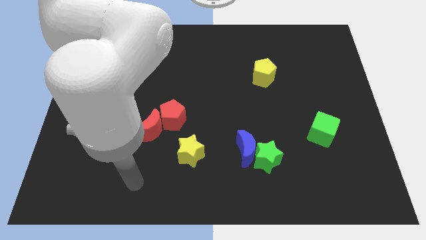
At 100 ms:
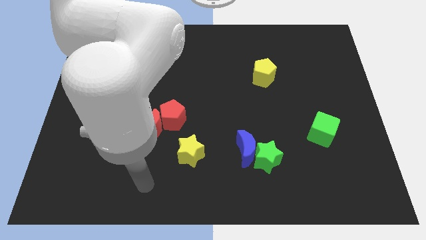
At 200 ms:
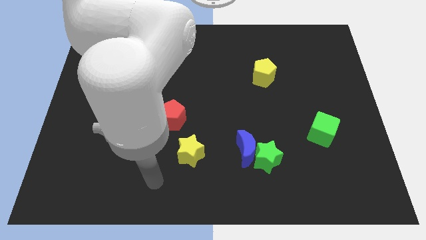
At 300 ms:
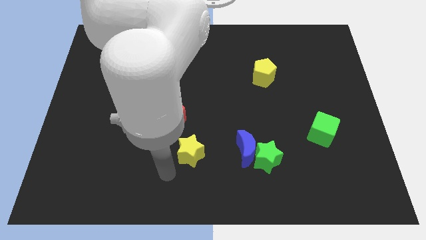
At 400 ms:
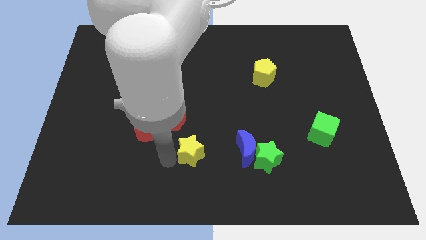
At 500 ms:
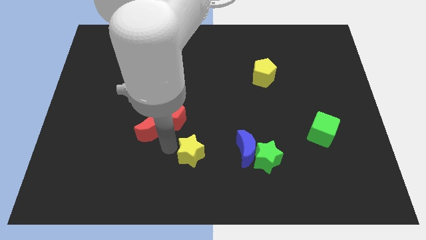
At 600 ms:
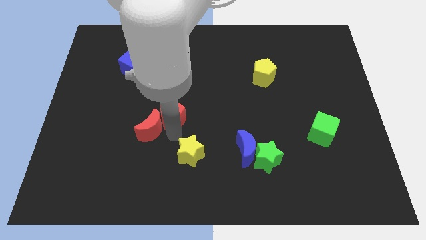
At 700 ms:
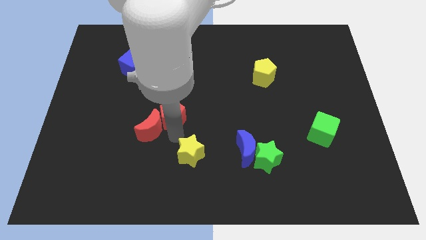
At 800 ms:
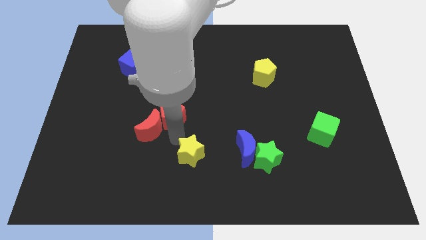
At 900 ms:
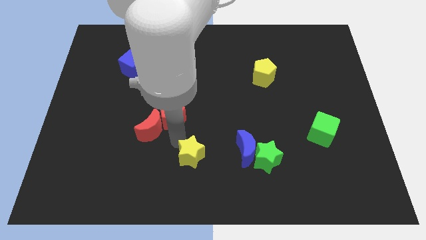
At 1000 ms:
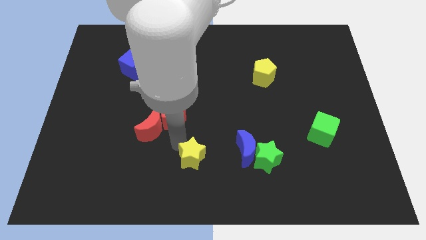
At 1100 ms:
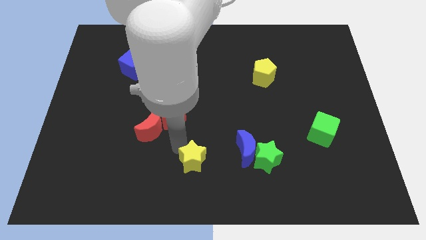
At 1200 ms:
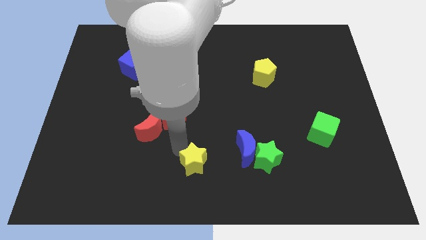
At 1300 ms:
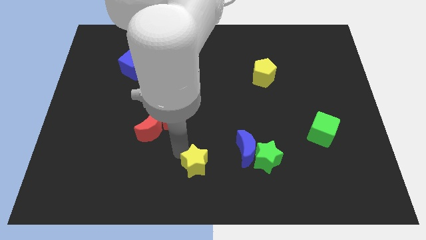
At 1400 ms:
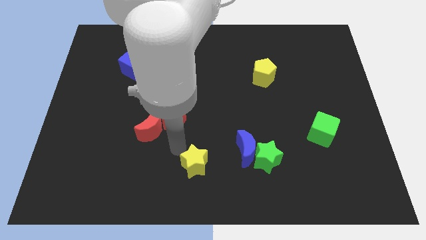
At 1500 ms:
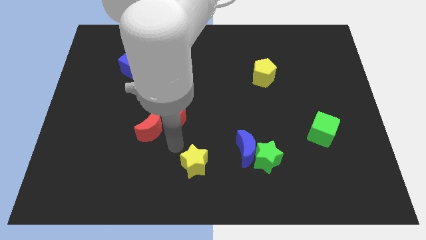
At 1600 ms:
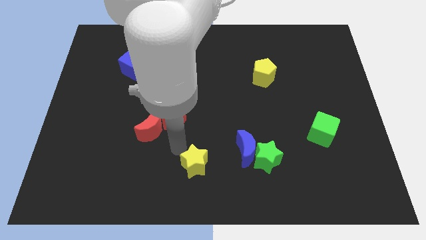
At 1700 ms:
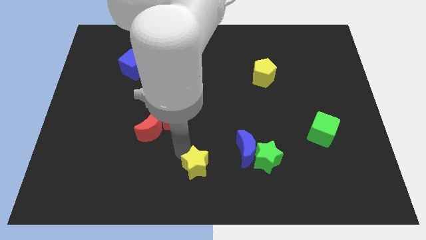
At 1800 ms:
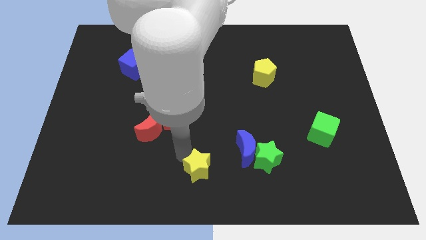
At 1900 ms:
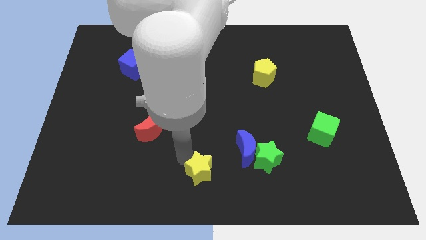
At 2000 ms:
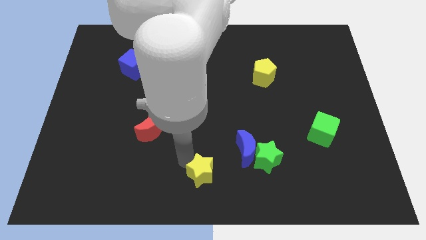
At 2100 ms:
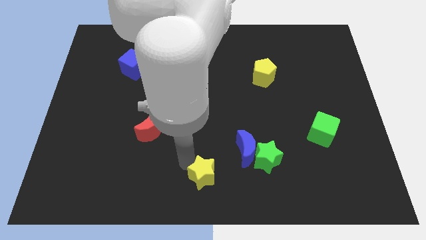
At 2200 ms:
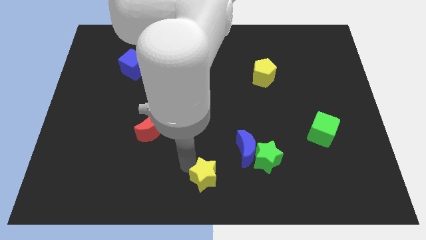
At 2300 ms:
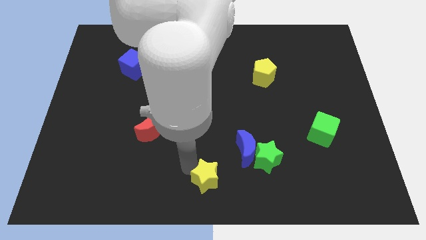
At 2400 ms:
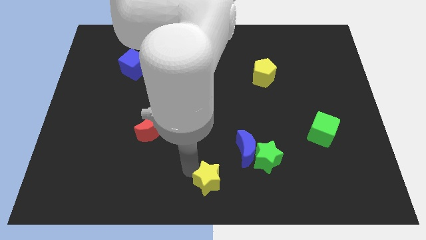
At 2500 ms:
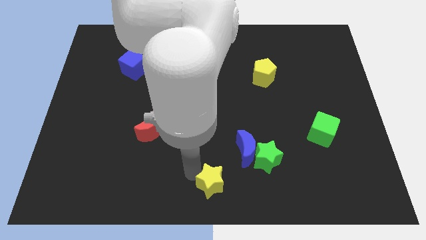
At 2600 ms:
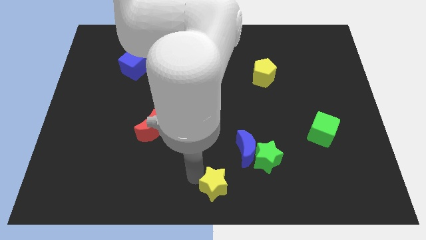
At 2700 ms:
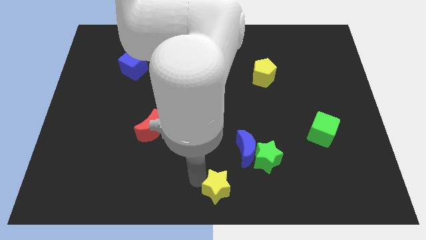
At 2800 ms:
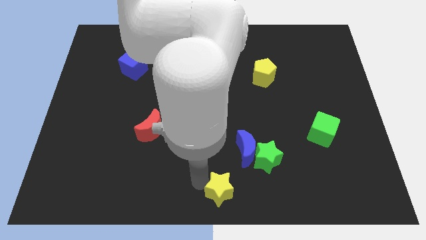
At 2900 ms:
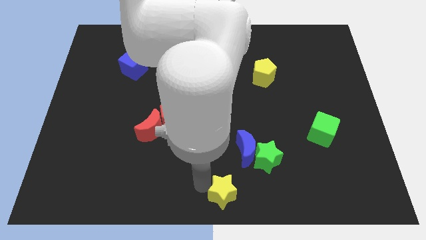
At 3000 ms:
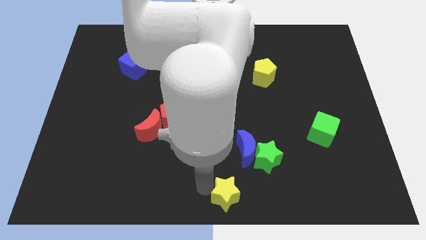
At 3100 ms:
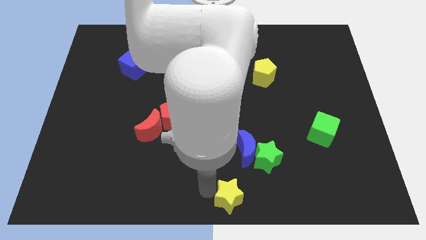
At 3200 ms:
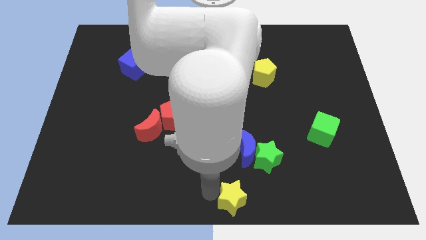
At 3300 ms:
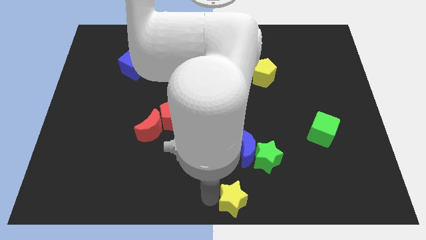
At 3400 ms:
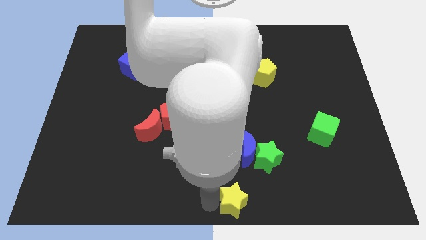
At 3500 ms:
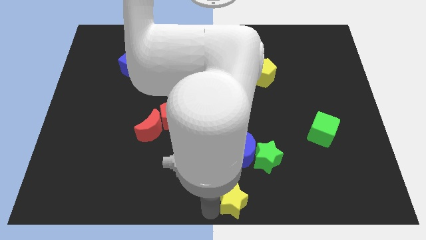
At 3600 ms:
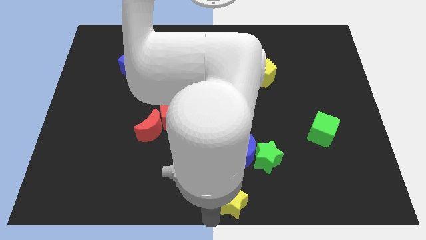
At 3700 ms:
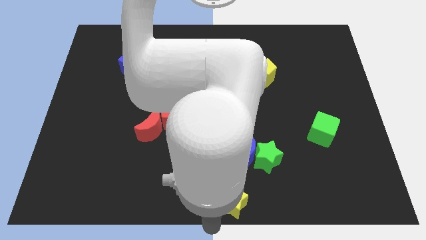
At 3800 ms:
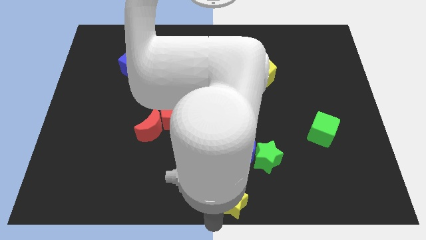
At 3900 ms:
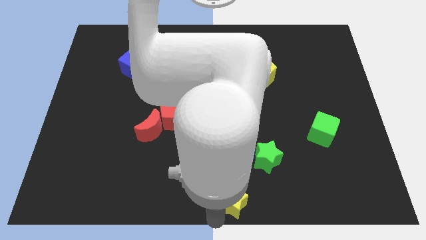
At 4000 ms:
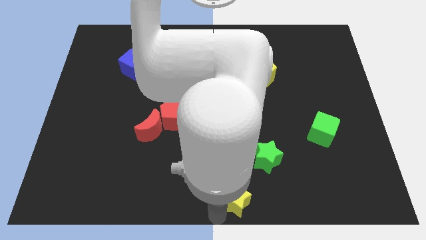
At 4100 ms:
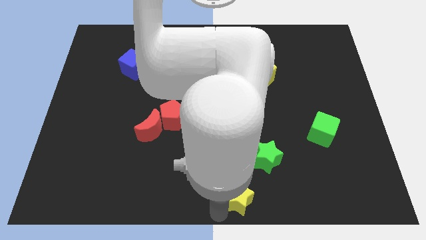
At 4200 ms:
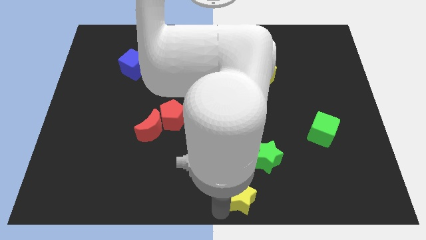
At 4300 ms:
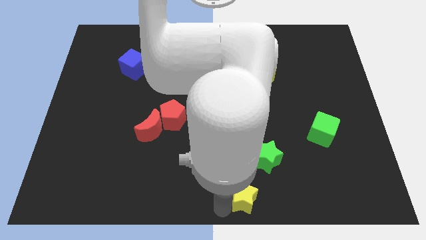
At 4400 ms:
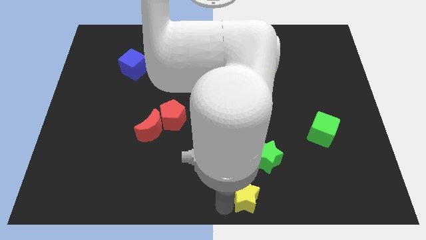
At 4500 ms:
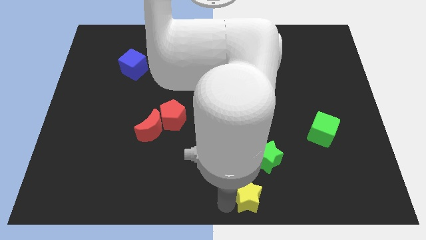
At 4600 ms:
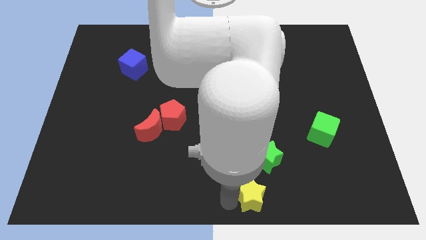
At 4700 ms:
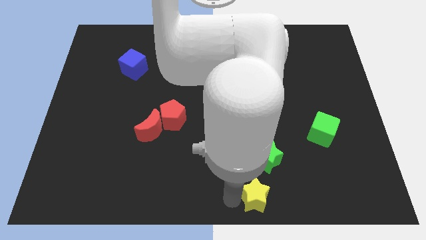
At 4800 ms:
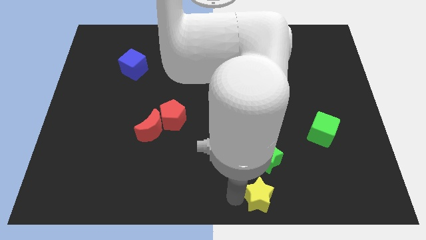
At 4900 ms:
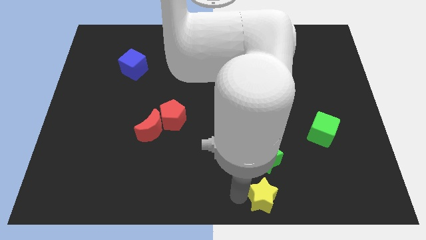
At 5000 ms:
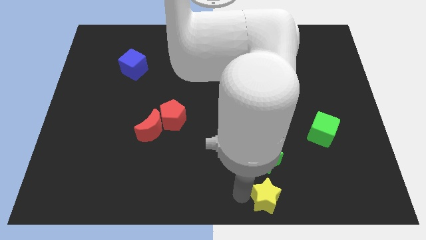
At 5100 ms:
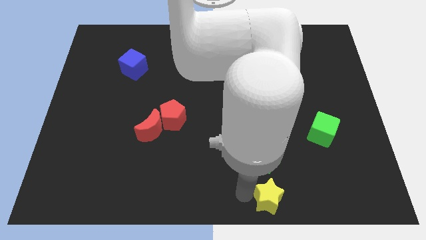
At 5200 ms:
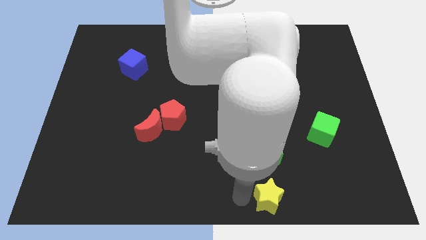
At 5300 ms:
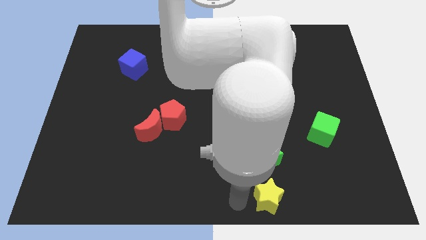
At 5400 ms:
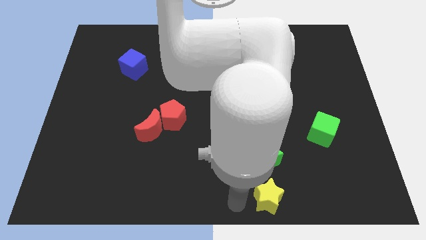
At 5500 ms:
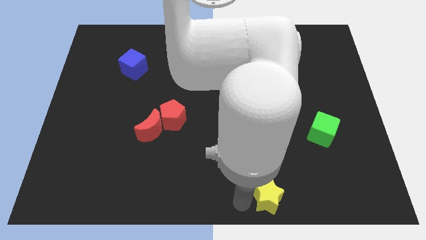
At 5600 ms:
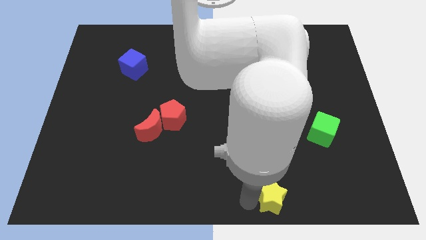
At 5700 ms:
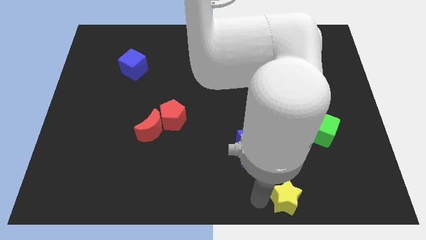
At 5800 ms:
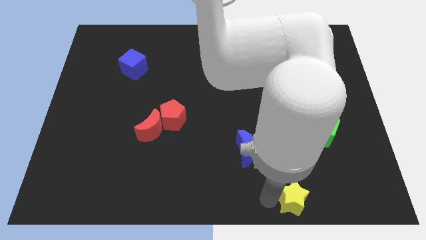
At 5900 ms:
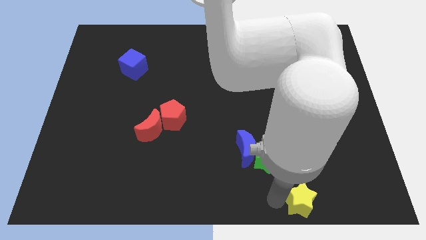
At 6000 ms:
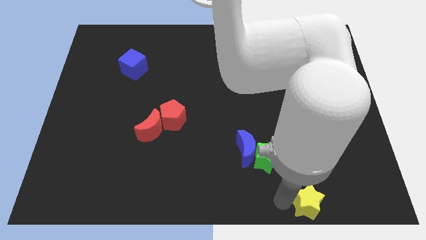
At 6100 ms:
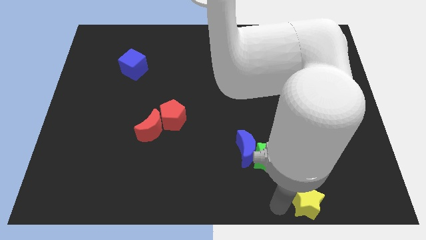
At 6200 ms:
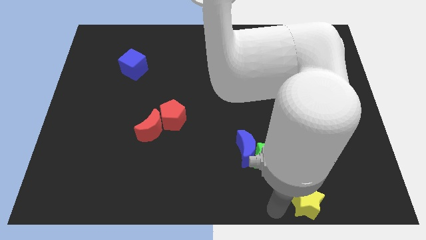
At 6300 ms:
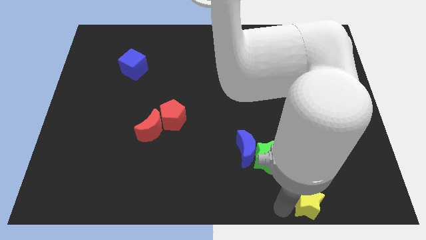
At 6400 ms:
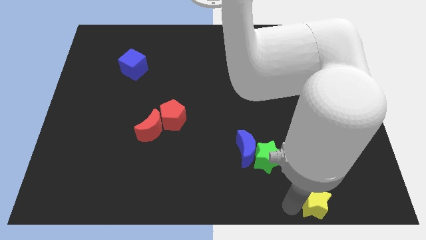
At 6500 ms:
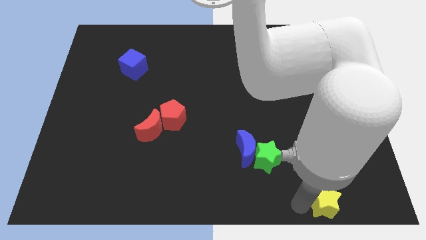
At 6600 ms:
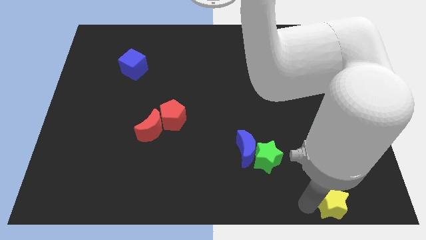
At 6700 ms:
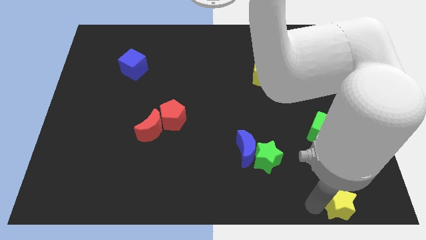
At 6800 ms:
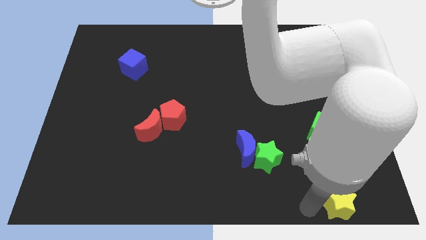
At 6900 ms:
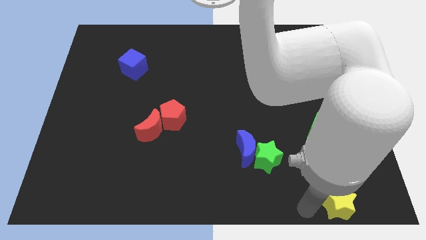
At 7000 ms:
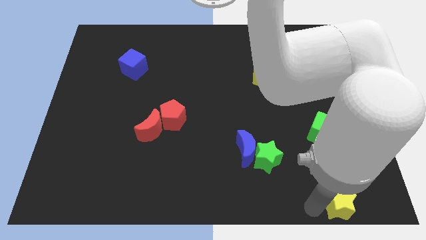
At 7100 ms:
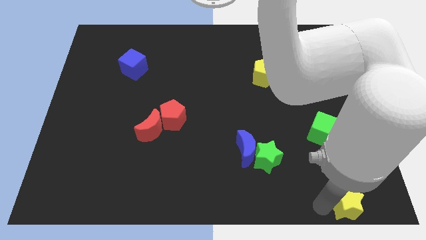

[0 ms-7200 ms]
put the yellow star to the lower right corner
